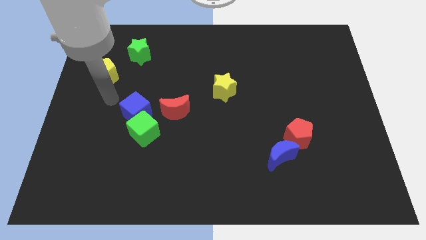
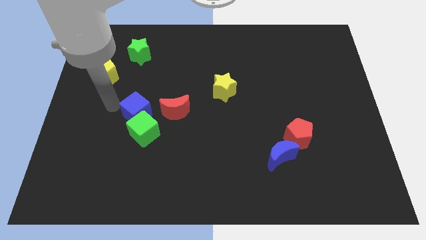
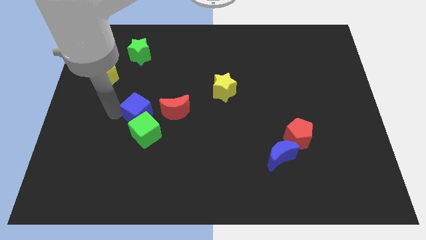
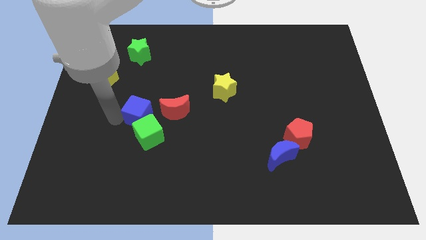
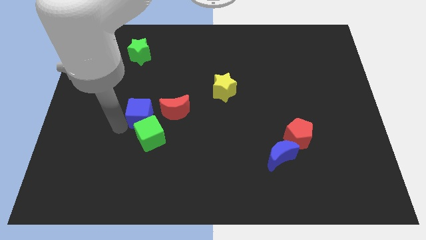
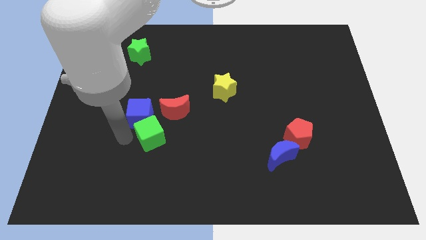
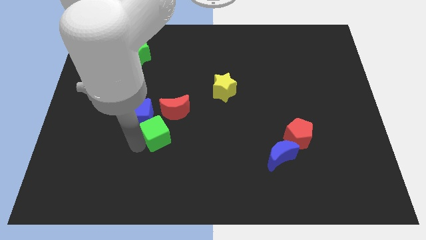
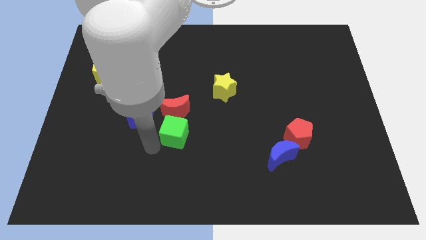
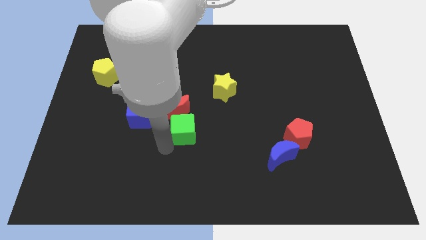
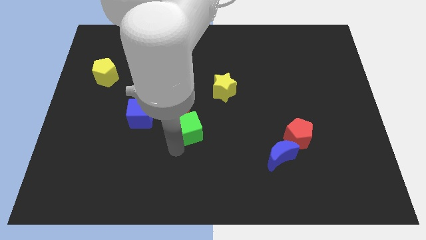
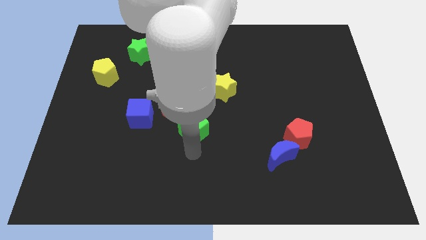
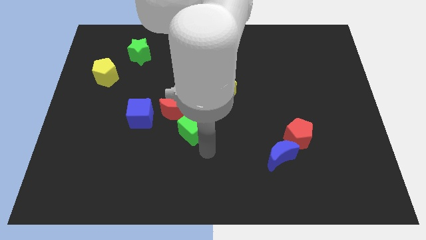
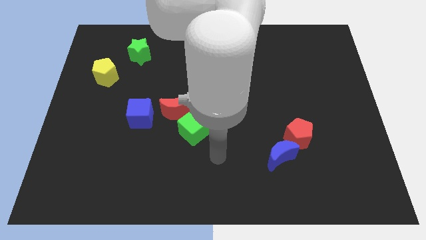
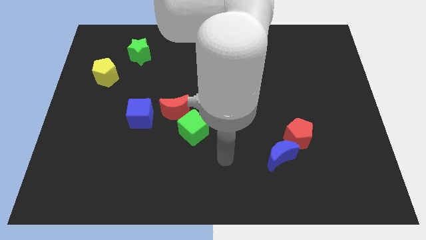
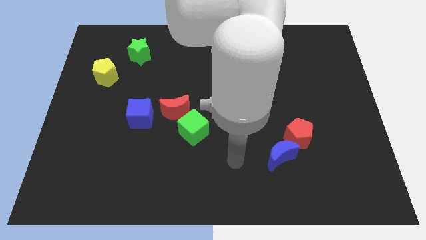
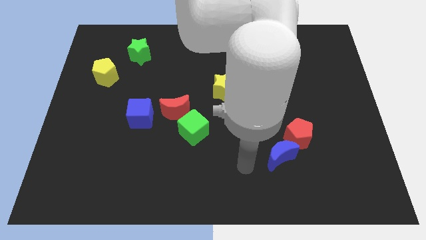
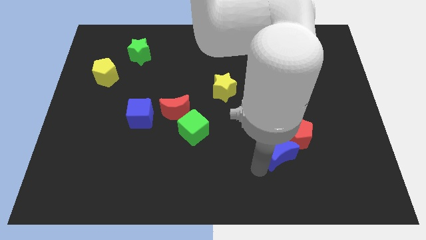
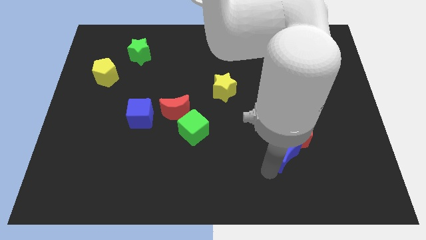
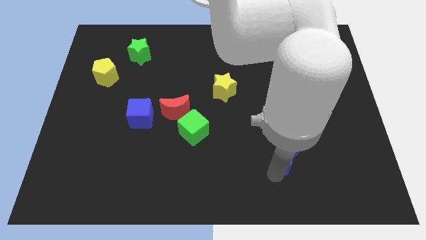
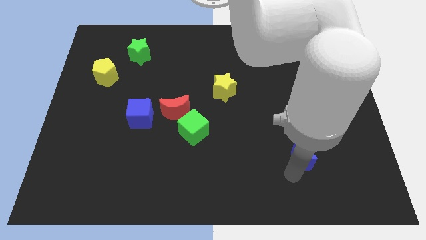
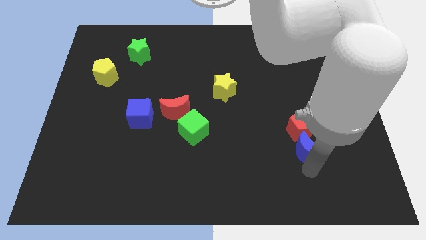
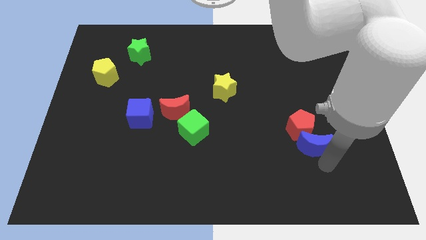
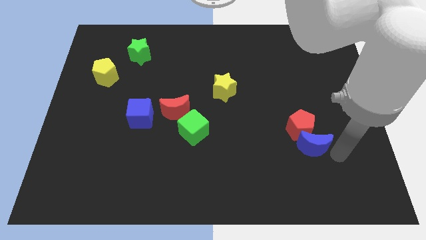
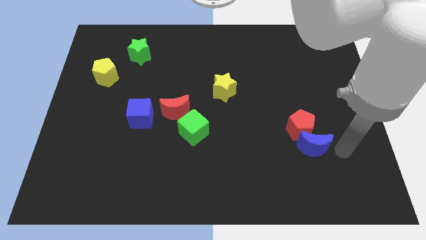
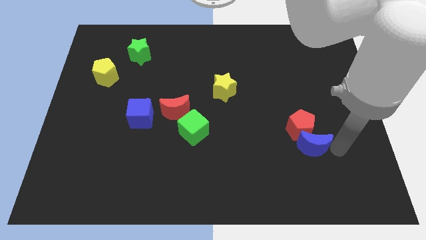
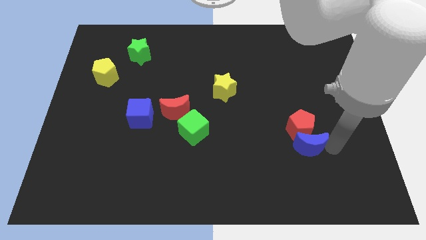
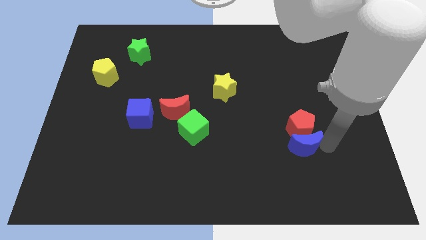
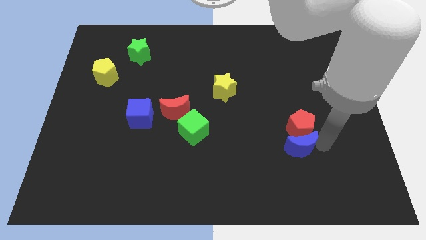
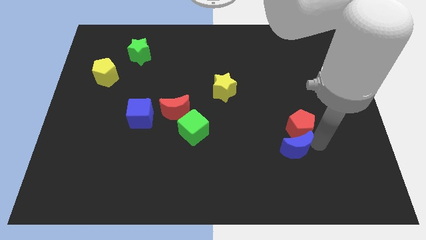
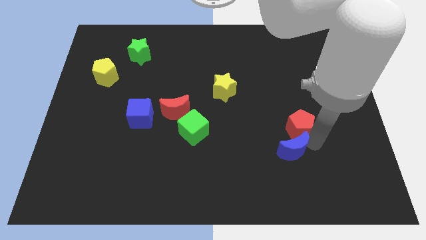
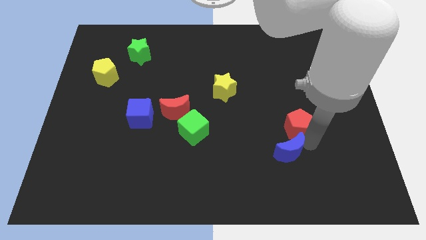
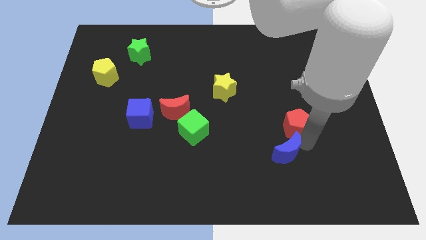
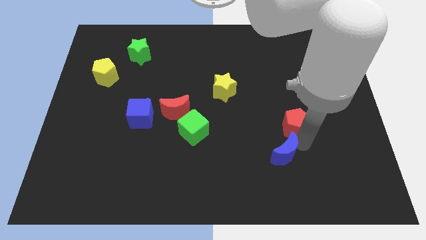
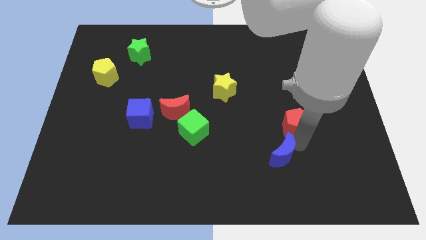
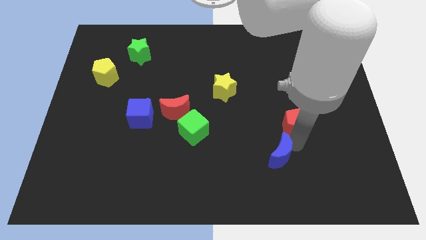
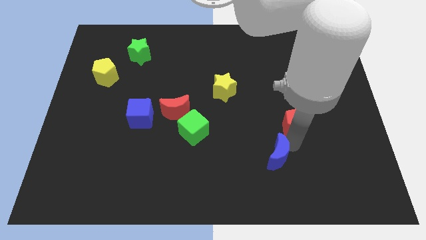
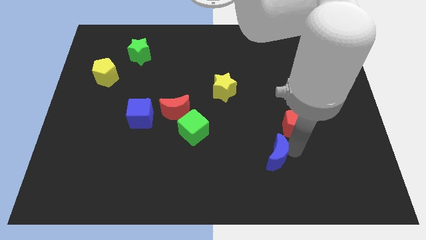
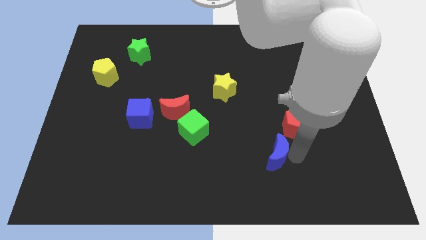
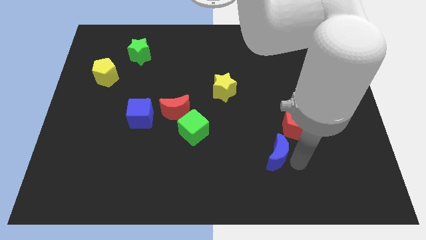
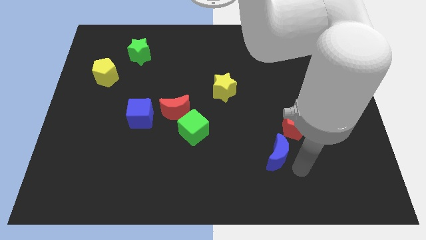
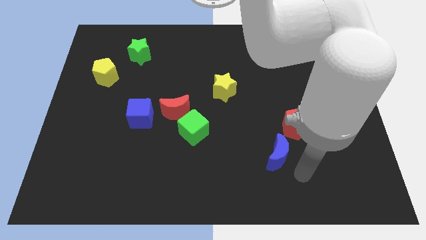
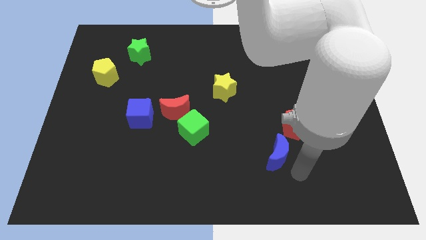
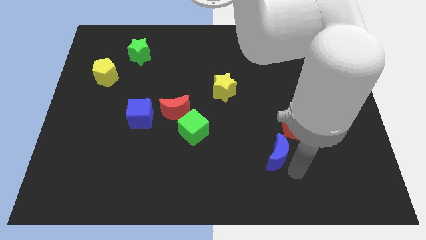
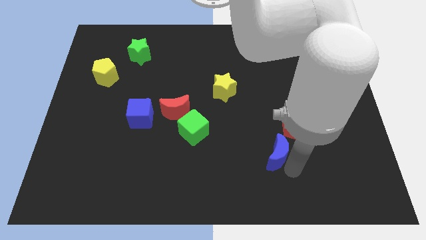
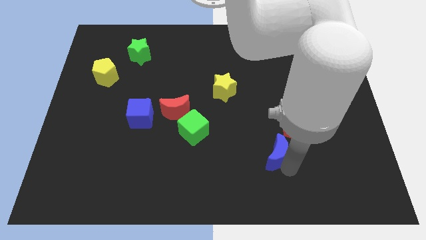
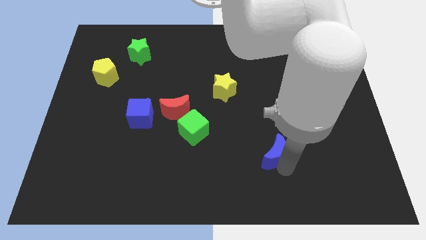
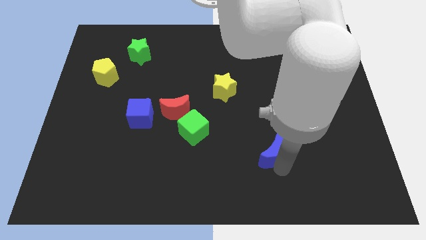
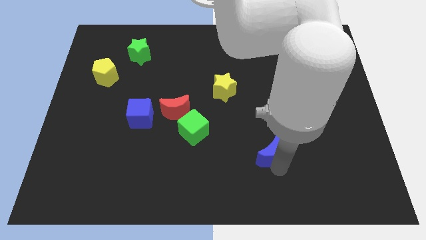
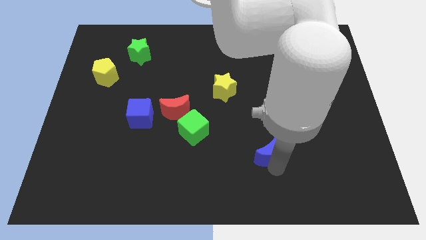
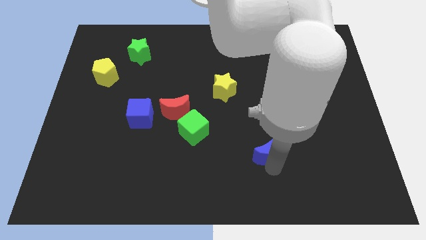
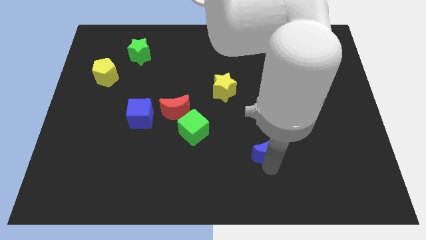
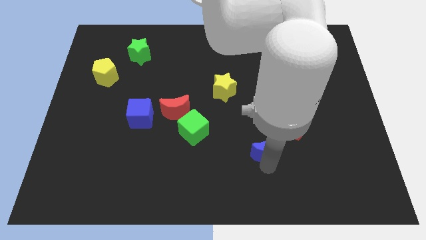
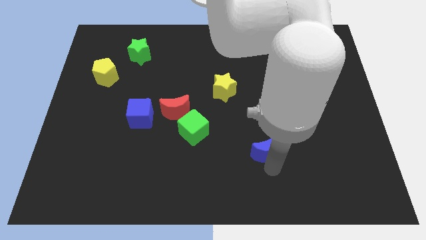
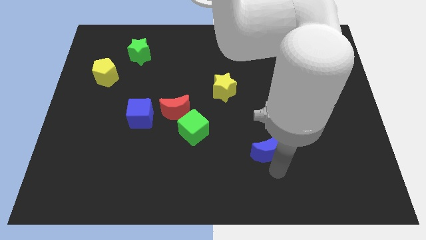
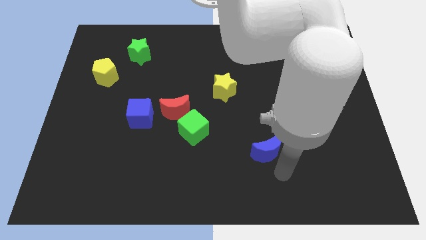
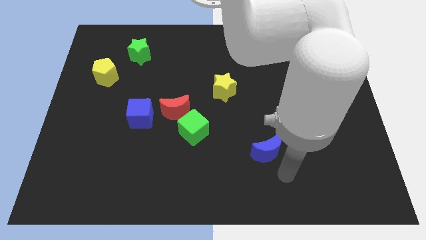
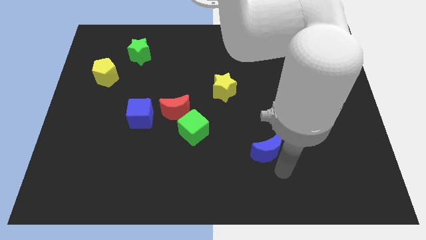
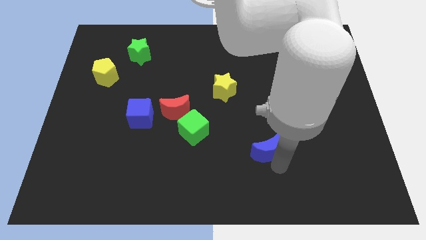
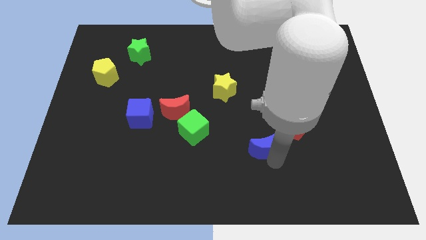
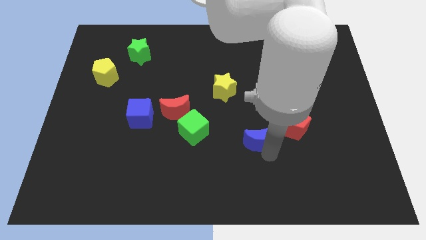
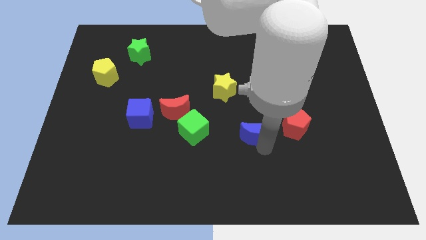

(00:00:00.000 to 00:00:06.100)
move the blue moon up and to the left diagonally slightly

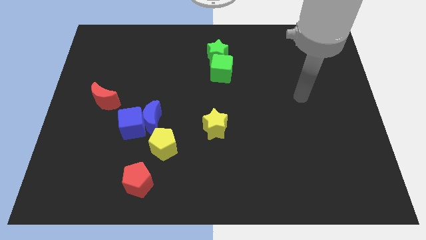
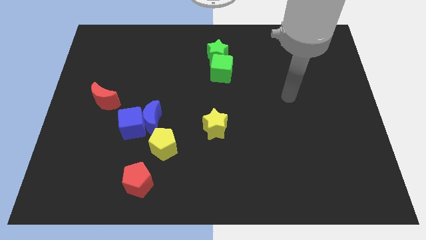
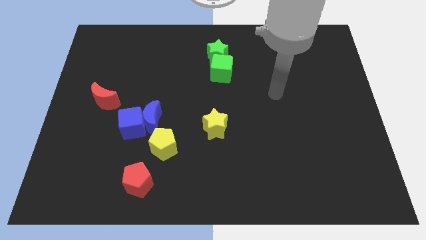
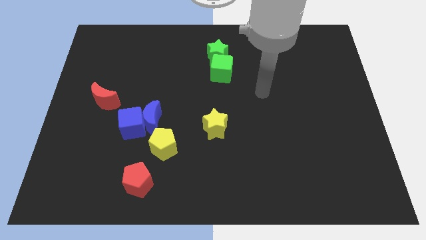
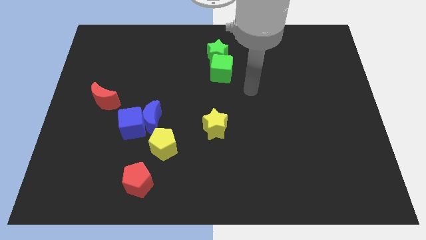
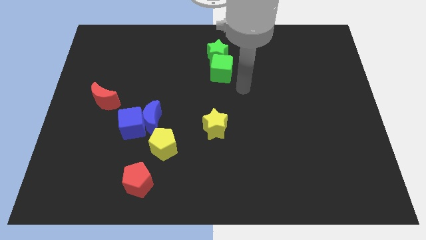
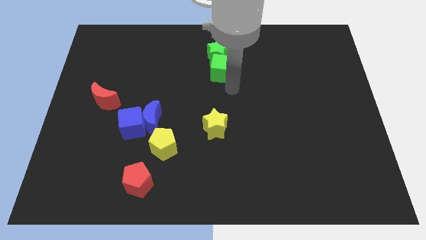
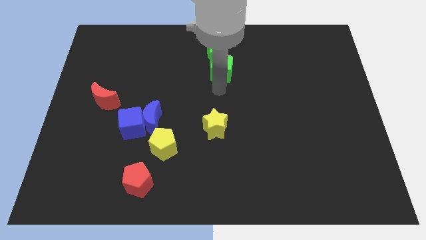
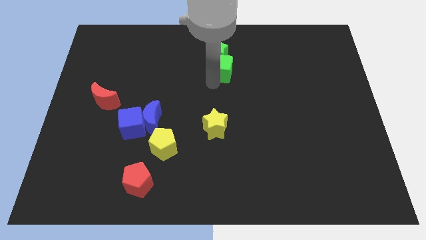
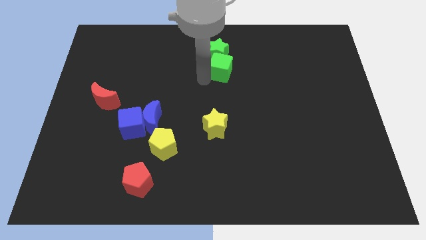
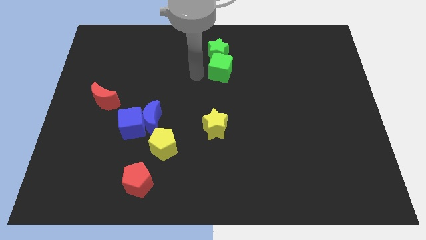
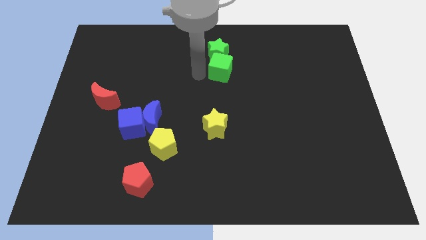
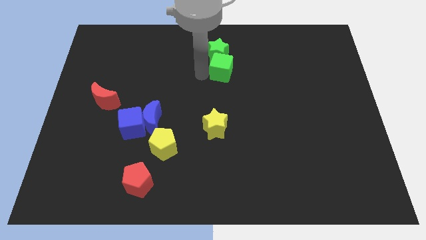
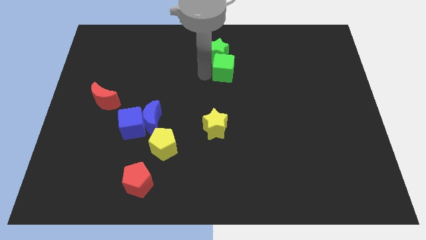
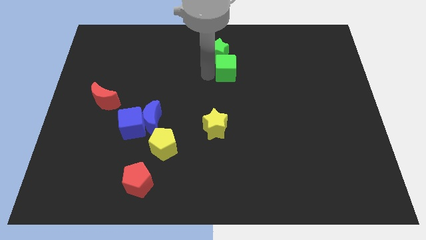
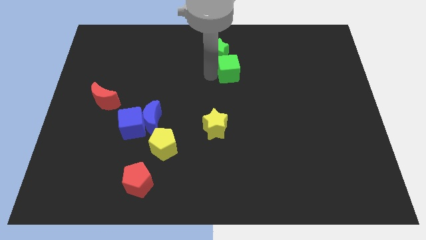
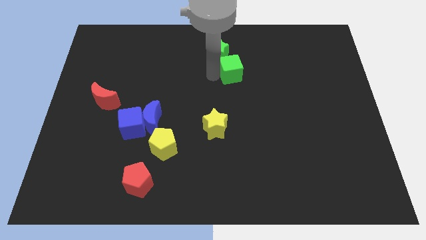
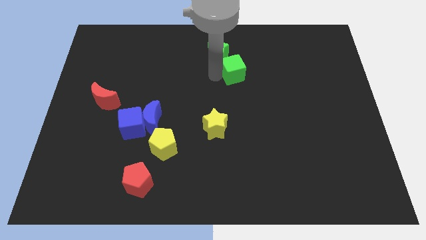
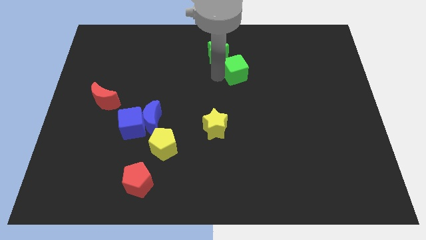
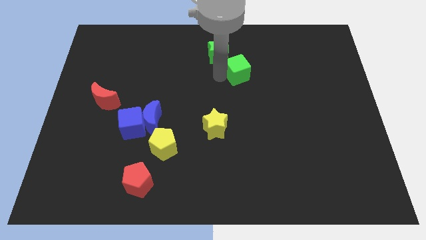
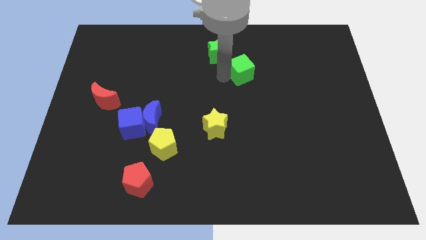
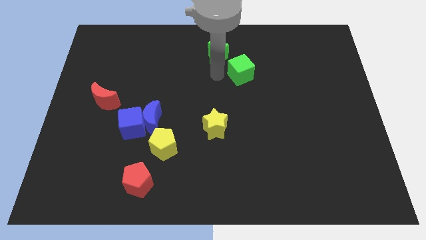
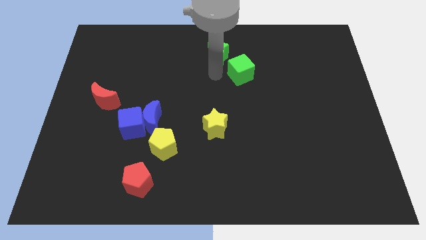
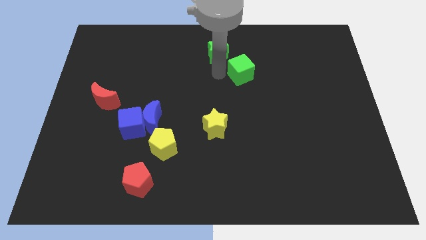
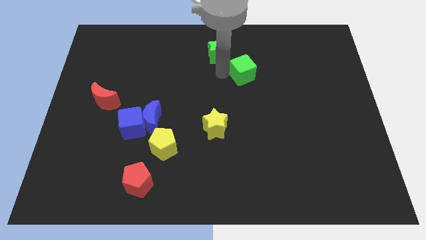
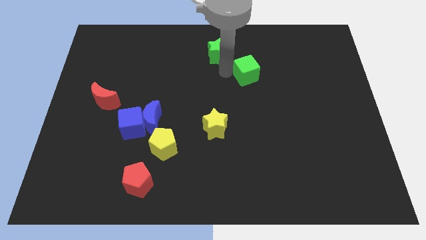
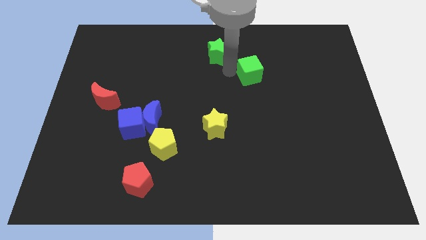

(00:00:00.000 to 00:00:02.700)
slightly slide the green cube to the right
